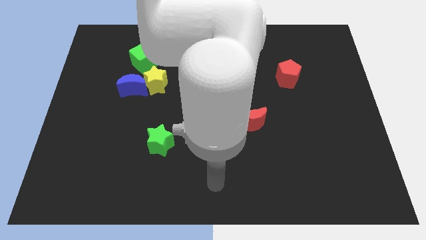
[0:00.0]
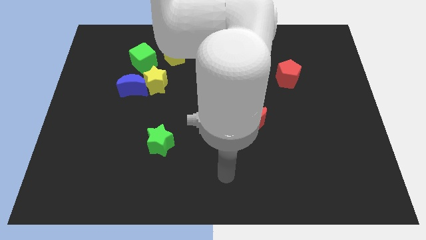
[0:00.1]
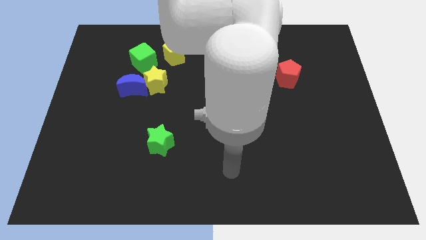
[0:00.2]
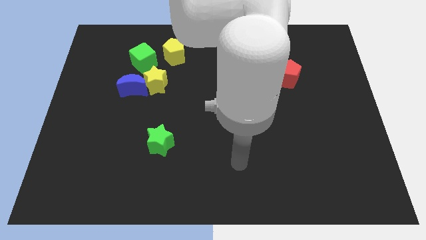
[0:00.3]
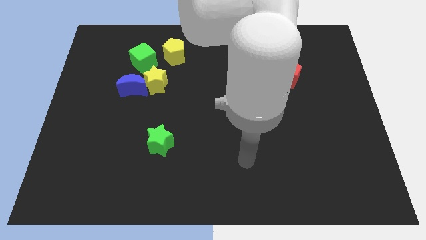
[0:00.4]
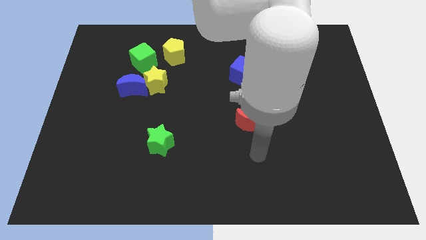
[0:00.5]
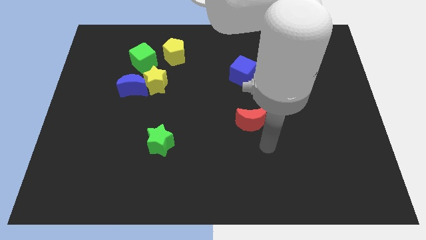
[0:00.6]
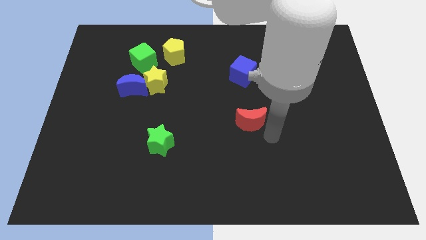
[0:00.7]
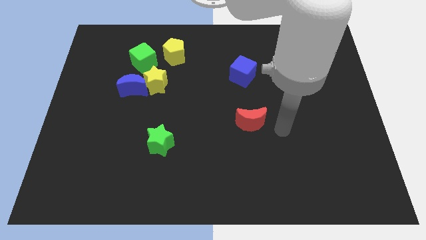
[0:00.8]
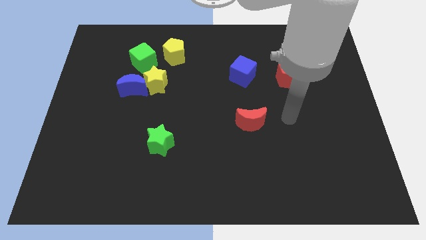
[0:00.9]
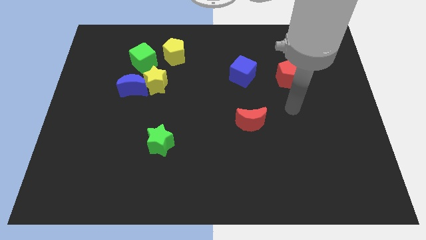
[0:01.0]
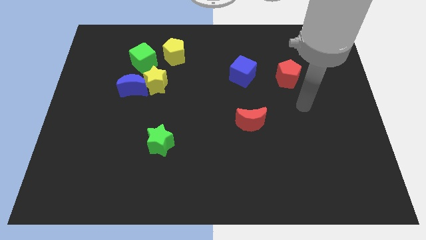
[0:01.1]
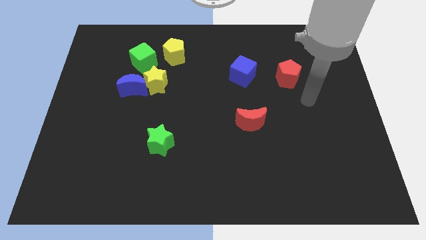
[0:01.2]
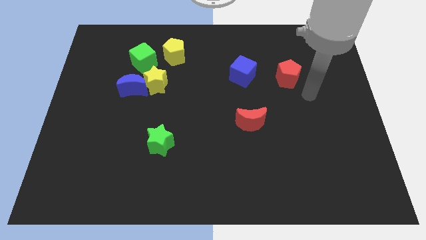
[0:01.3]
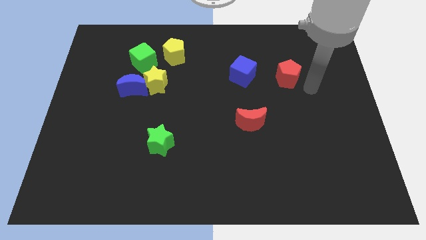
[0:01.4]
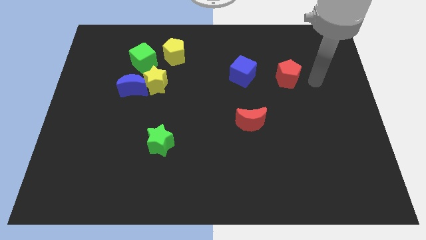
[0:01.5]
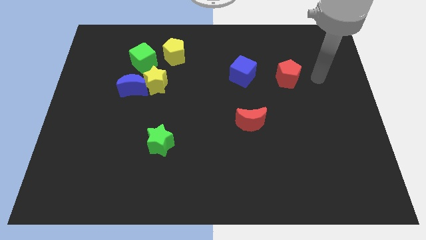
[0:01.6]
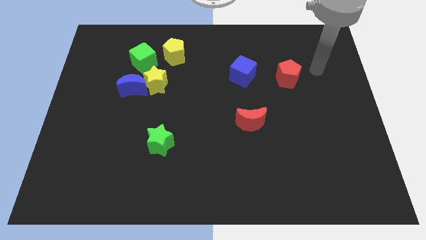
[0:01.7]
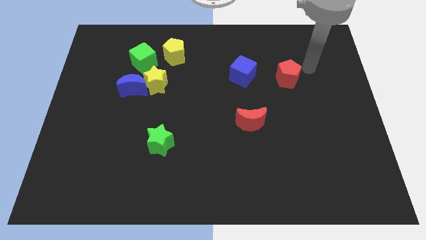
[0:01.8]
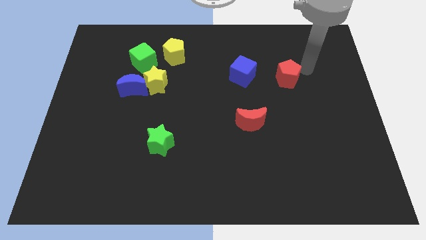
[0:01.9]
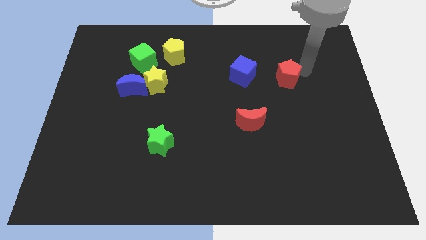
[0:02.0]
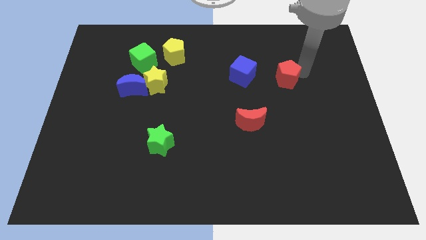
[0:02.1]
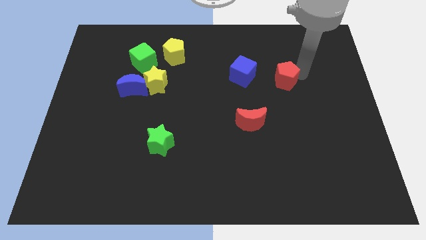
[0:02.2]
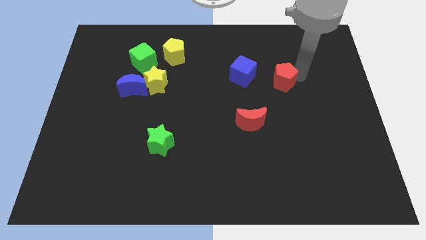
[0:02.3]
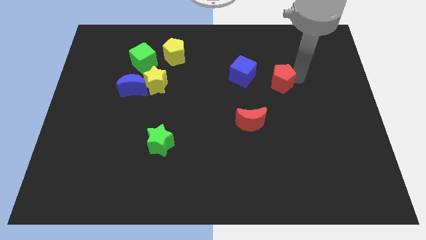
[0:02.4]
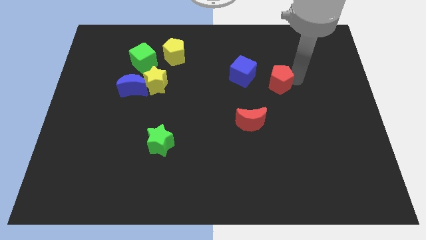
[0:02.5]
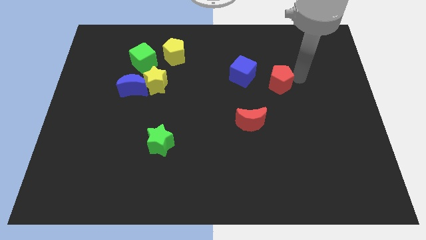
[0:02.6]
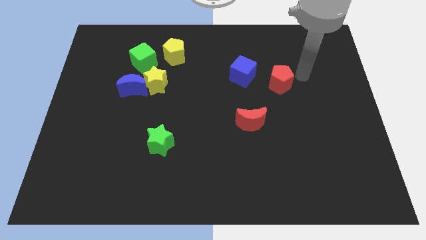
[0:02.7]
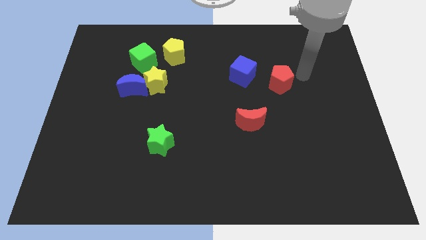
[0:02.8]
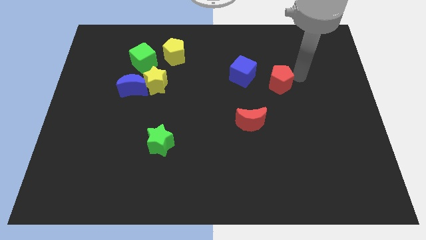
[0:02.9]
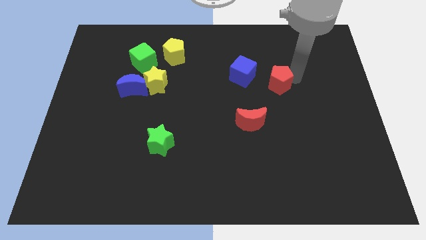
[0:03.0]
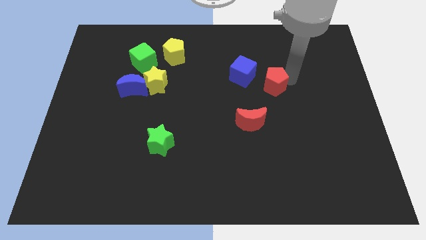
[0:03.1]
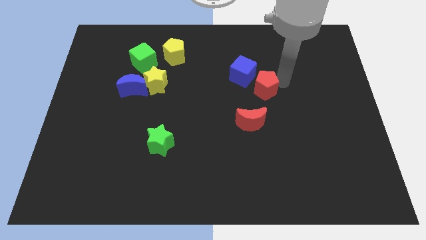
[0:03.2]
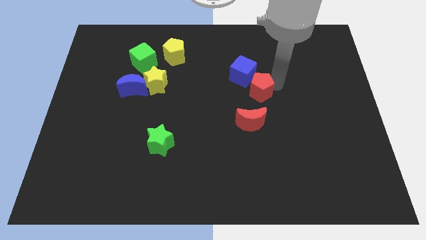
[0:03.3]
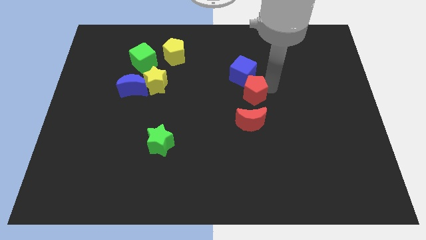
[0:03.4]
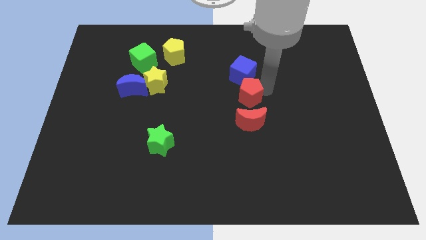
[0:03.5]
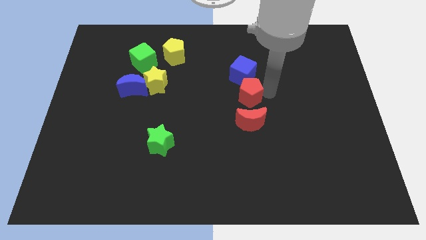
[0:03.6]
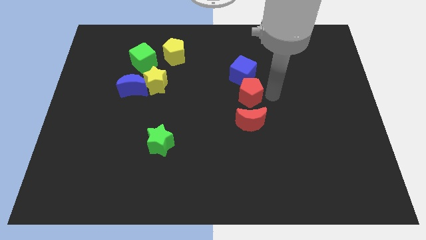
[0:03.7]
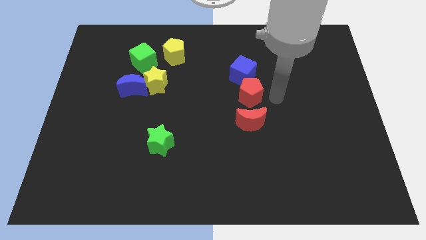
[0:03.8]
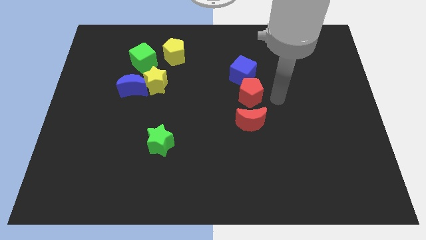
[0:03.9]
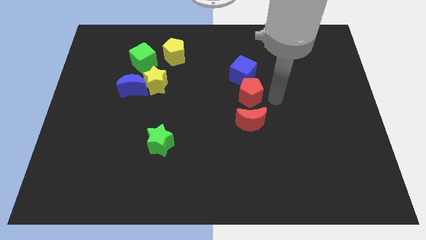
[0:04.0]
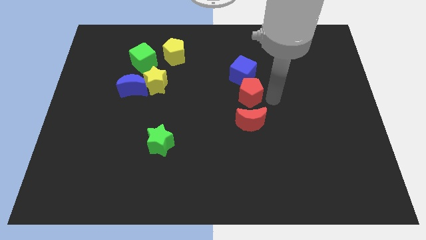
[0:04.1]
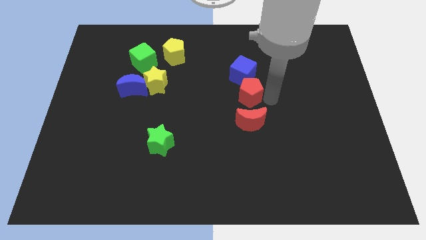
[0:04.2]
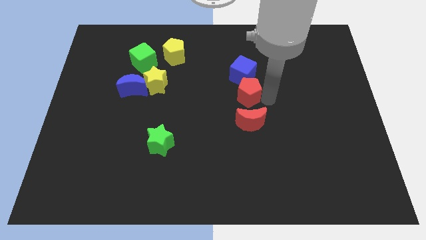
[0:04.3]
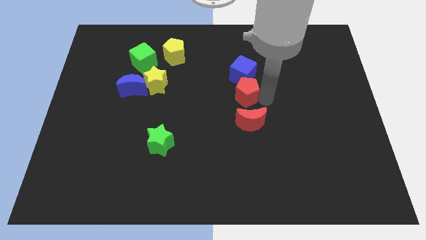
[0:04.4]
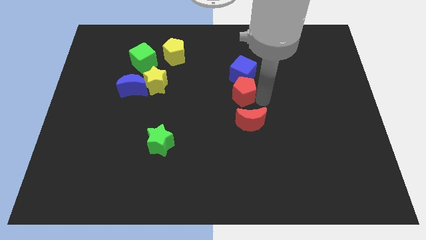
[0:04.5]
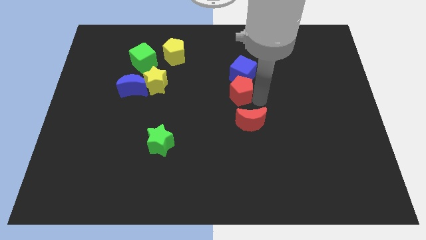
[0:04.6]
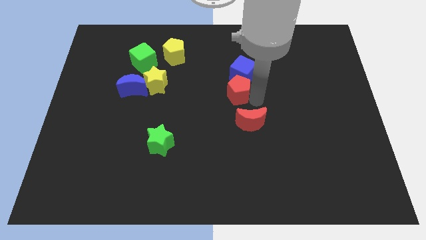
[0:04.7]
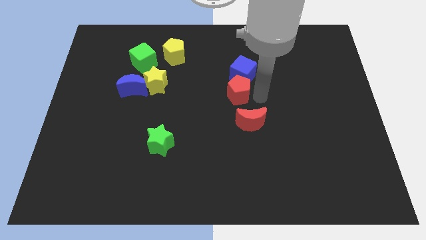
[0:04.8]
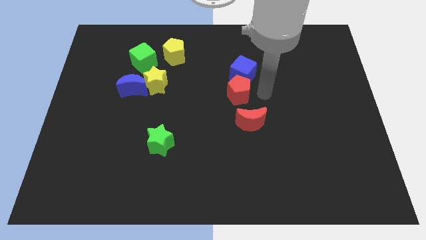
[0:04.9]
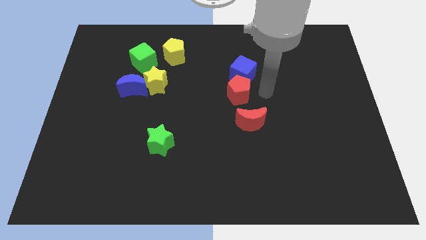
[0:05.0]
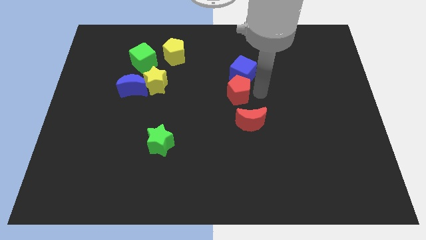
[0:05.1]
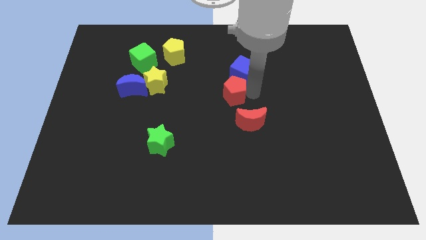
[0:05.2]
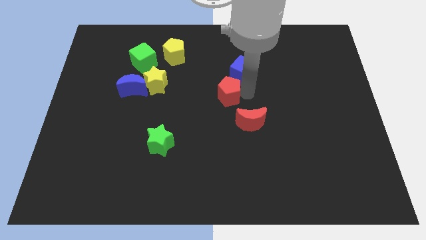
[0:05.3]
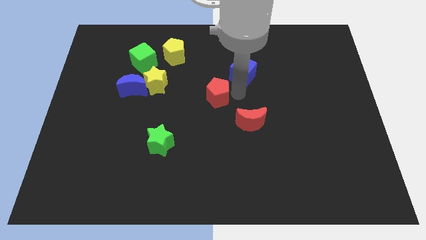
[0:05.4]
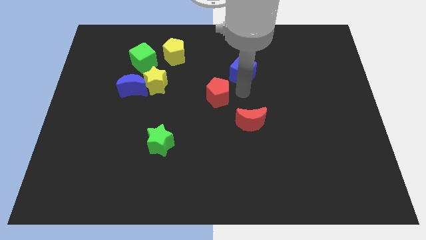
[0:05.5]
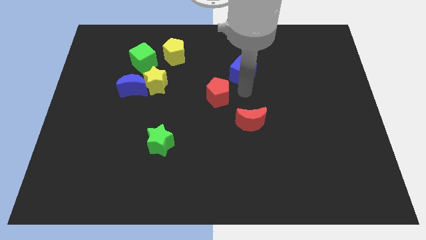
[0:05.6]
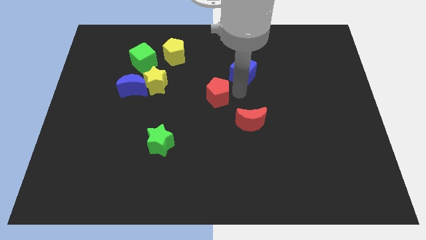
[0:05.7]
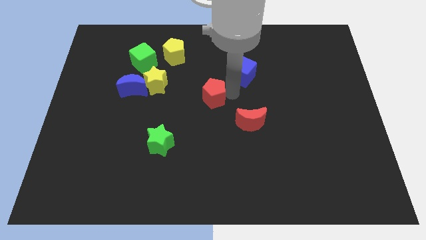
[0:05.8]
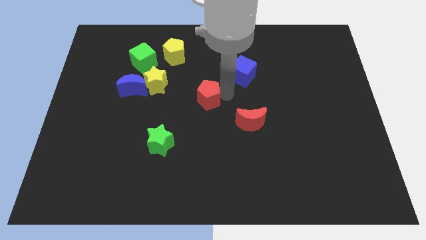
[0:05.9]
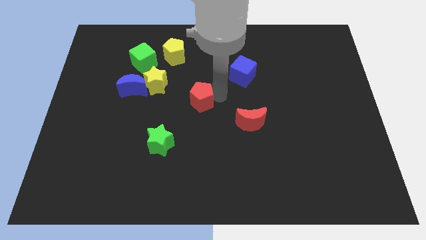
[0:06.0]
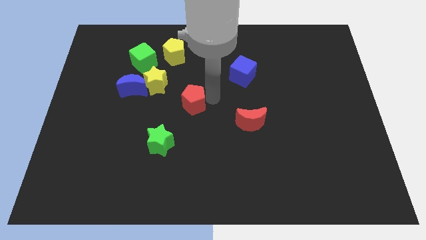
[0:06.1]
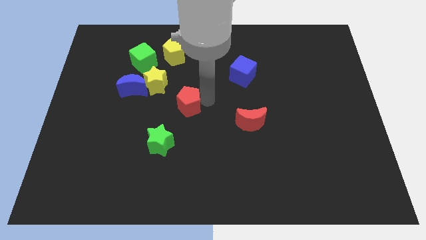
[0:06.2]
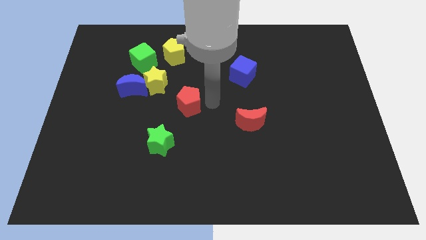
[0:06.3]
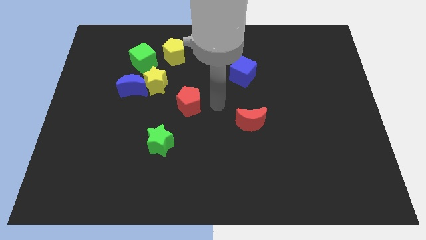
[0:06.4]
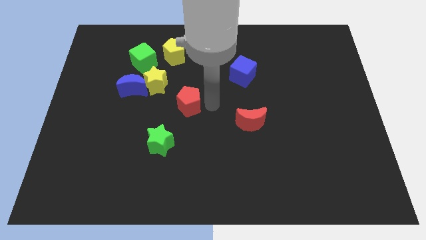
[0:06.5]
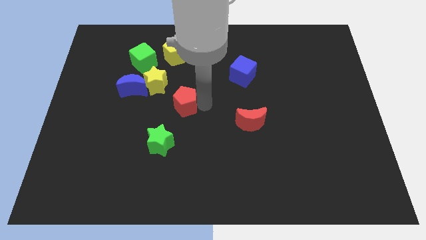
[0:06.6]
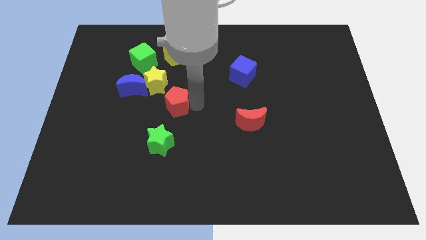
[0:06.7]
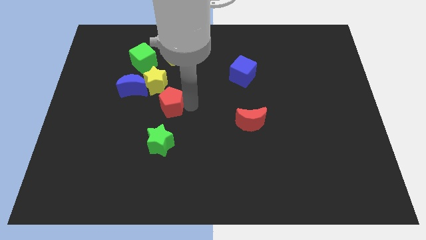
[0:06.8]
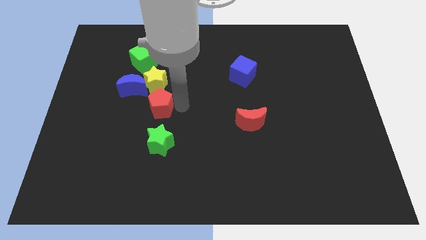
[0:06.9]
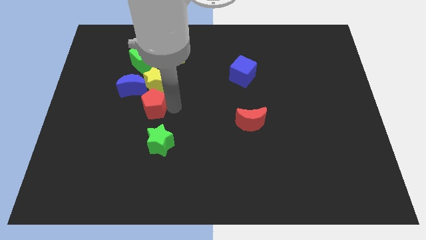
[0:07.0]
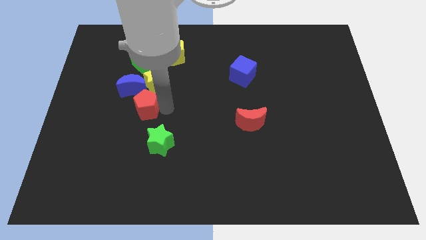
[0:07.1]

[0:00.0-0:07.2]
put the red pentagon diagonally down and to the left of the yellow star

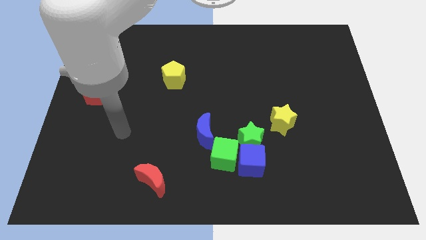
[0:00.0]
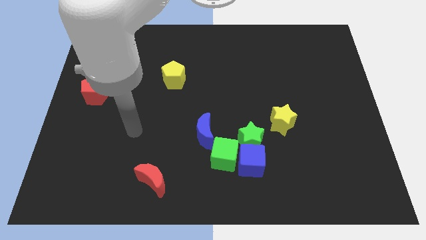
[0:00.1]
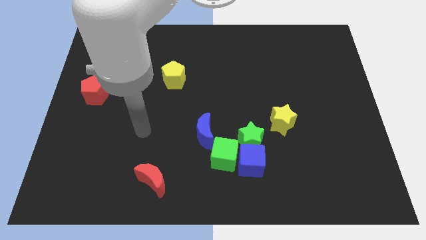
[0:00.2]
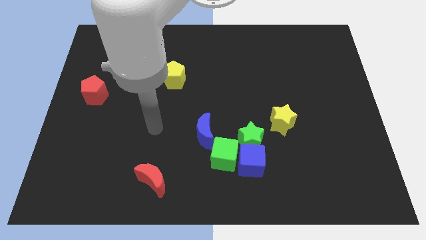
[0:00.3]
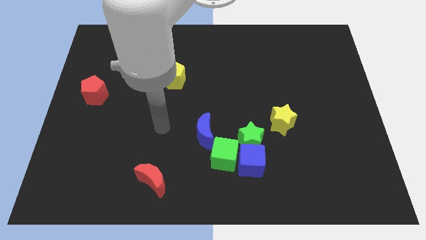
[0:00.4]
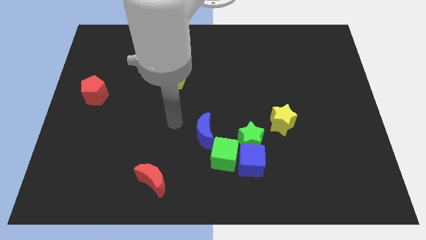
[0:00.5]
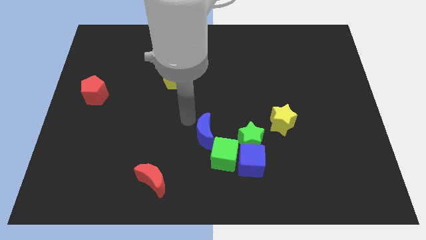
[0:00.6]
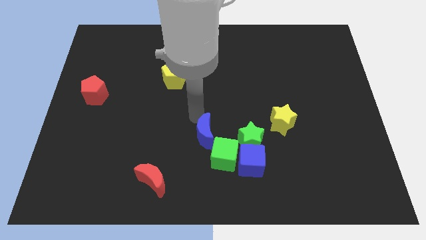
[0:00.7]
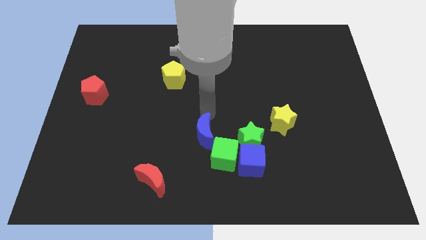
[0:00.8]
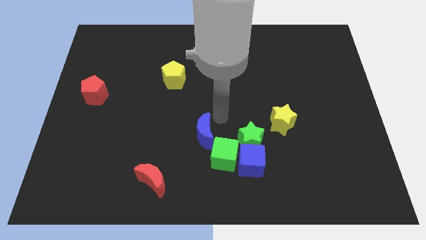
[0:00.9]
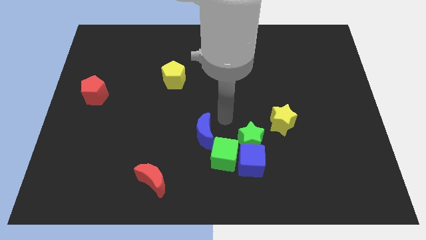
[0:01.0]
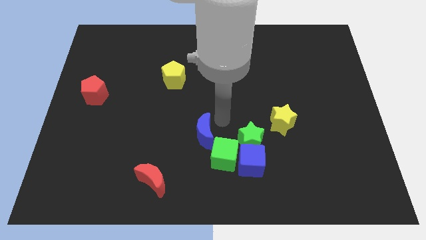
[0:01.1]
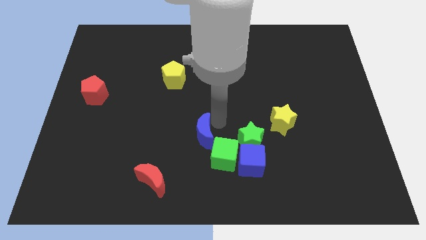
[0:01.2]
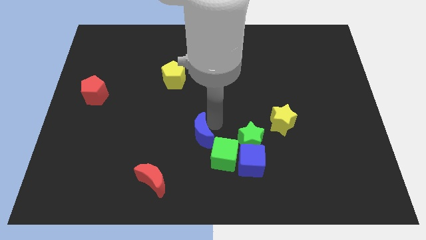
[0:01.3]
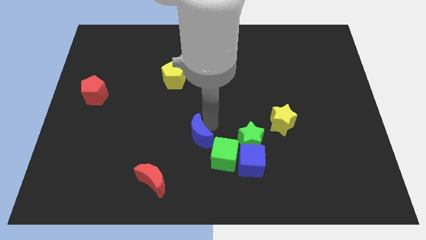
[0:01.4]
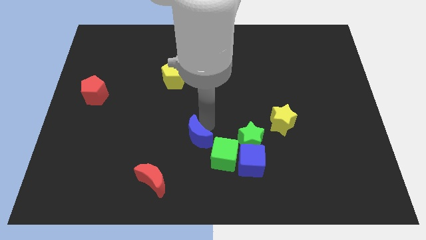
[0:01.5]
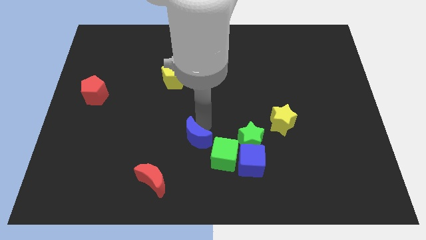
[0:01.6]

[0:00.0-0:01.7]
slide the blue moon just left of the green cube
